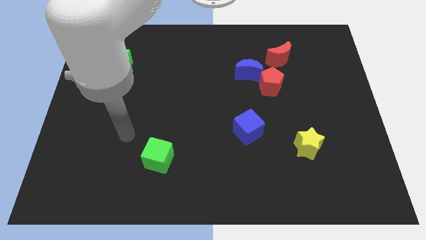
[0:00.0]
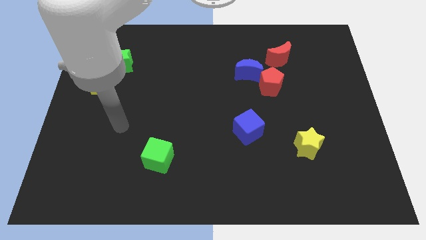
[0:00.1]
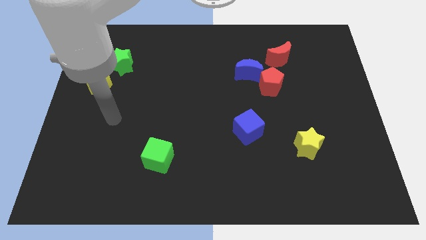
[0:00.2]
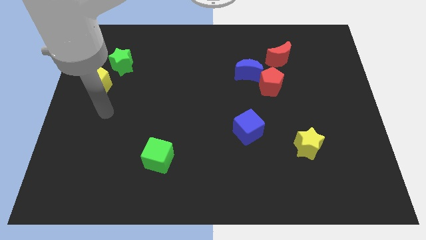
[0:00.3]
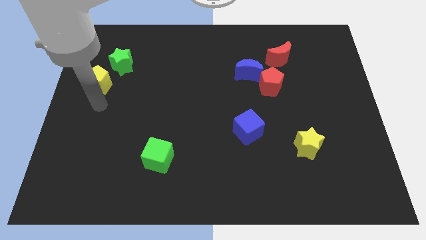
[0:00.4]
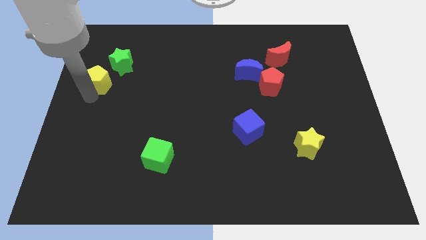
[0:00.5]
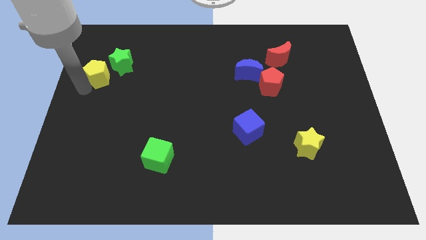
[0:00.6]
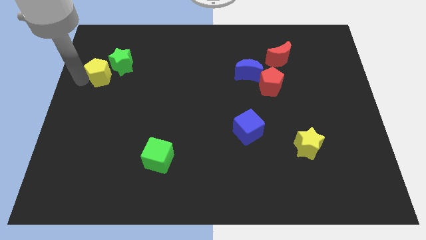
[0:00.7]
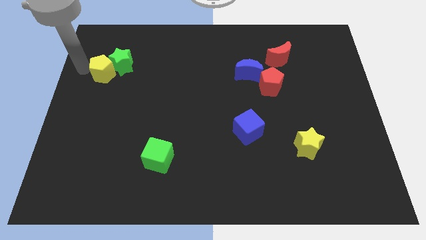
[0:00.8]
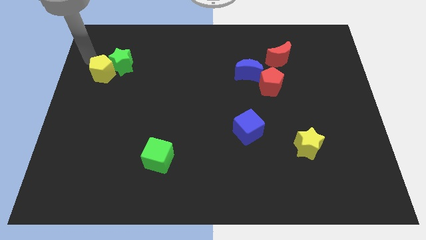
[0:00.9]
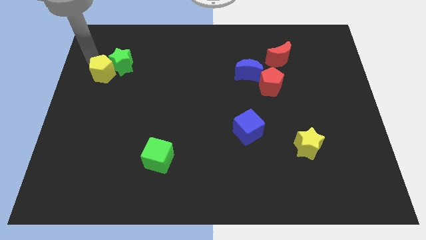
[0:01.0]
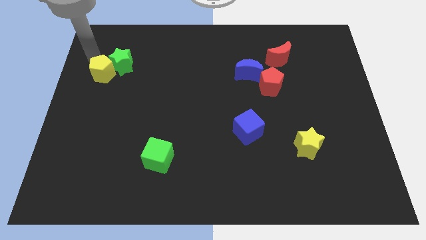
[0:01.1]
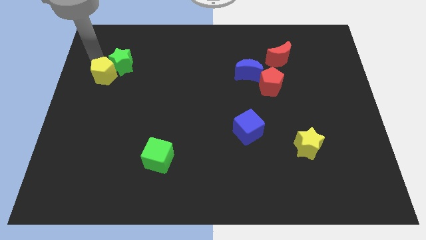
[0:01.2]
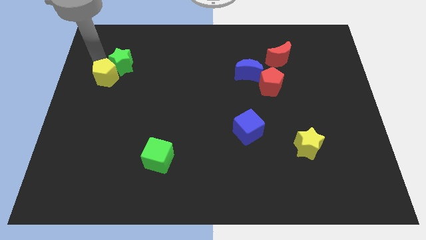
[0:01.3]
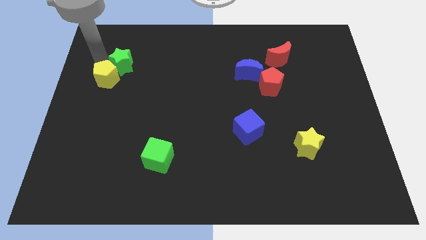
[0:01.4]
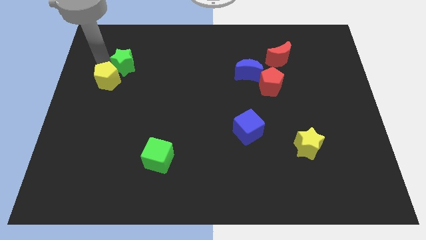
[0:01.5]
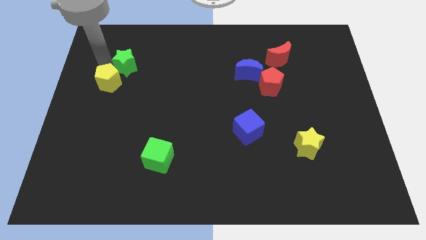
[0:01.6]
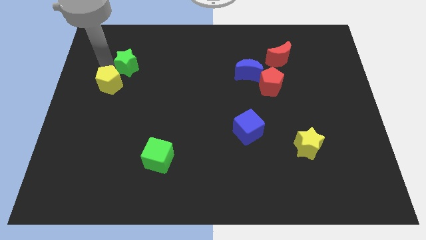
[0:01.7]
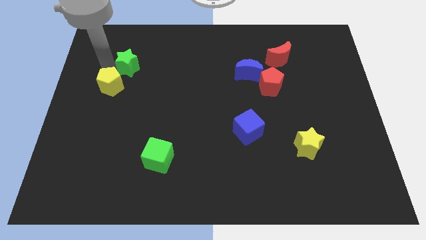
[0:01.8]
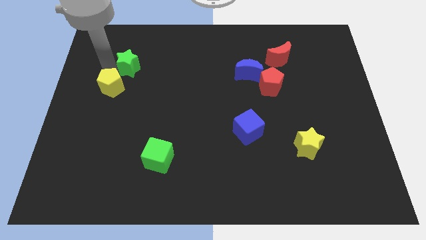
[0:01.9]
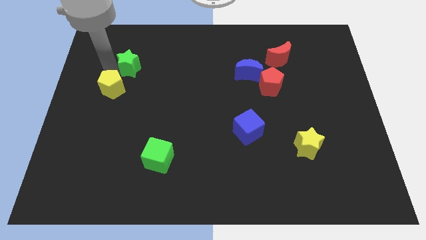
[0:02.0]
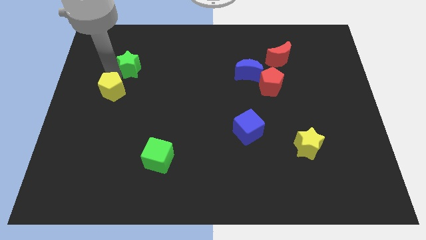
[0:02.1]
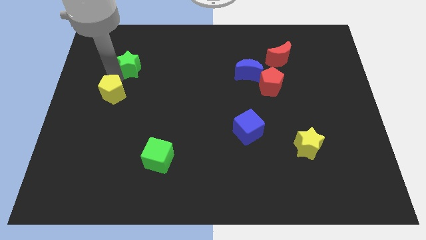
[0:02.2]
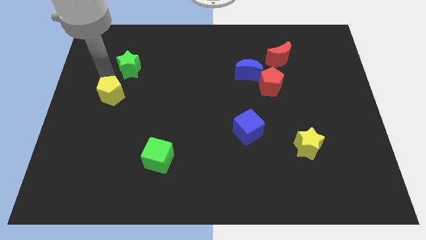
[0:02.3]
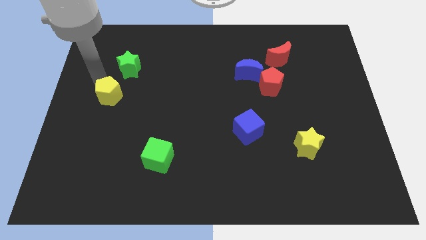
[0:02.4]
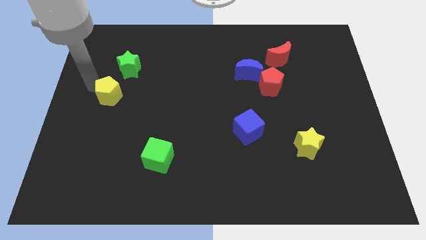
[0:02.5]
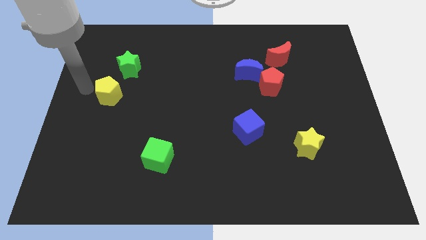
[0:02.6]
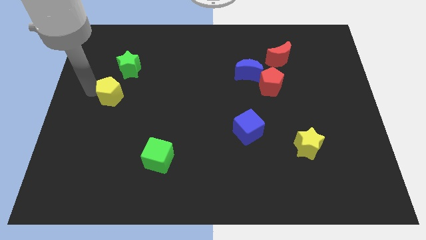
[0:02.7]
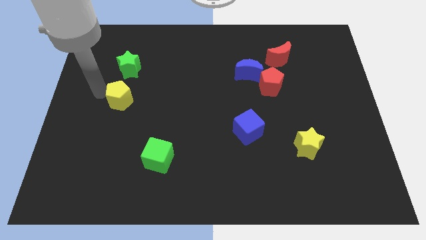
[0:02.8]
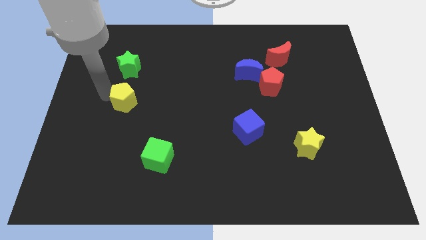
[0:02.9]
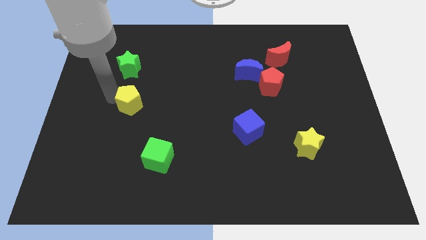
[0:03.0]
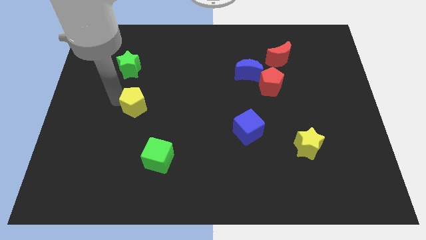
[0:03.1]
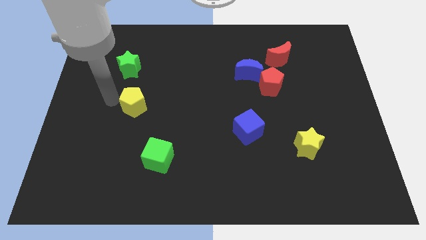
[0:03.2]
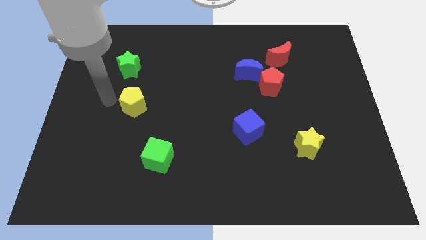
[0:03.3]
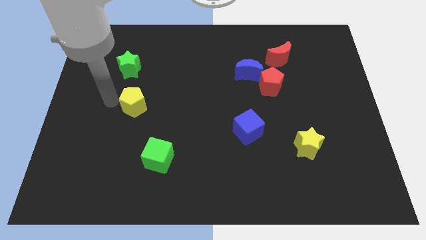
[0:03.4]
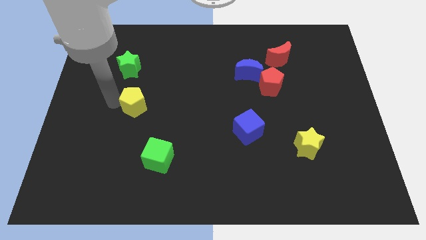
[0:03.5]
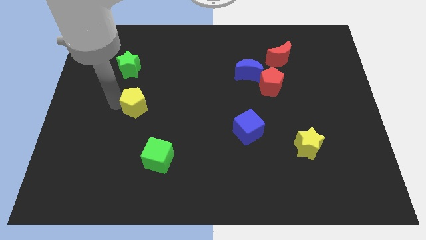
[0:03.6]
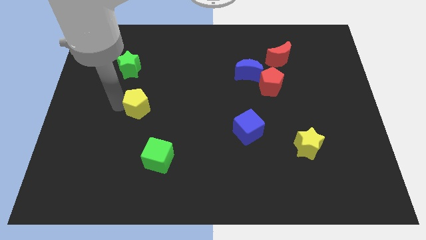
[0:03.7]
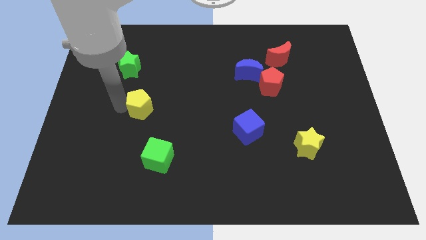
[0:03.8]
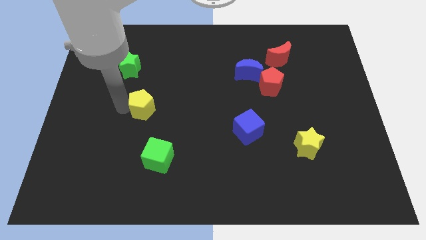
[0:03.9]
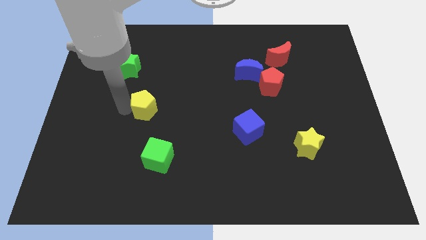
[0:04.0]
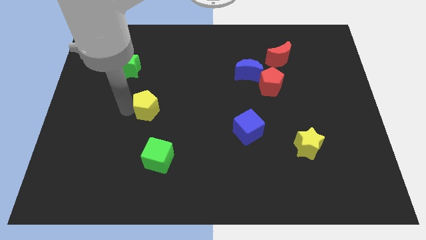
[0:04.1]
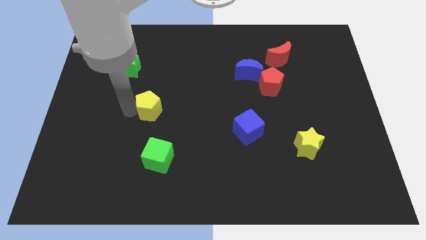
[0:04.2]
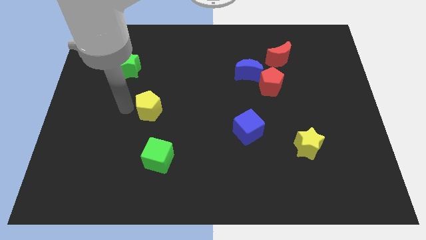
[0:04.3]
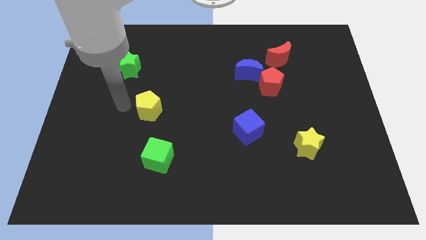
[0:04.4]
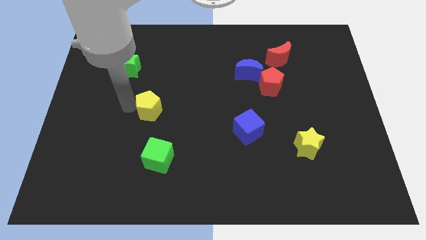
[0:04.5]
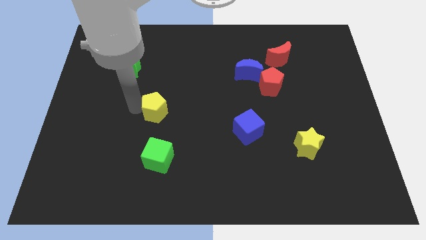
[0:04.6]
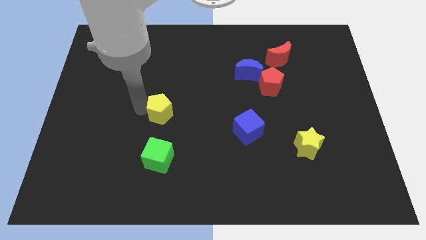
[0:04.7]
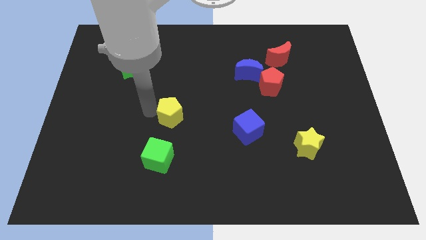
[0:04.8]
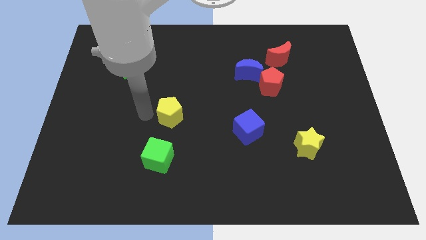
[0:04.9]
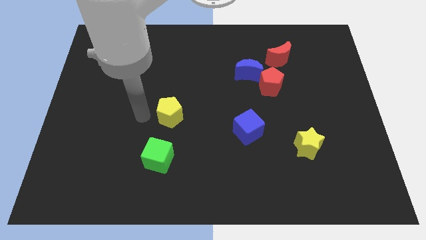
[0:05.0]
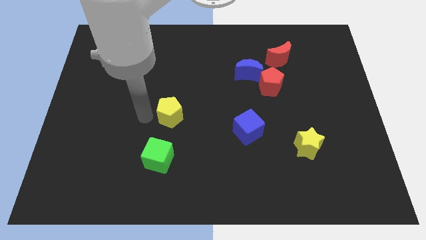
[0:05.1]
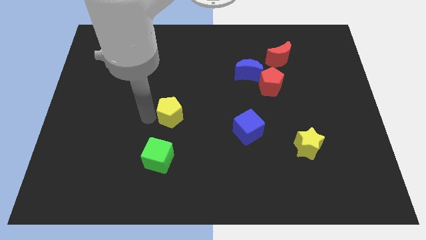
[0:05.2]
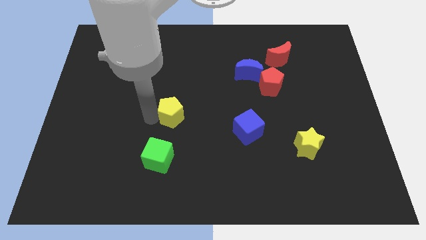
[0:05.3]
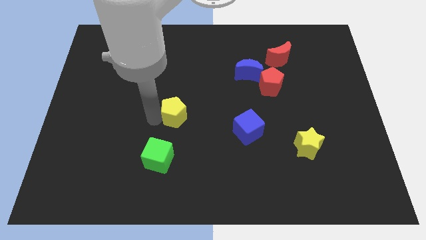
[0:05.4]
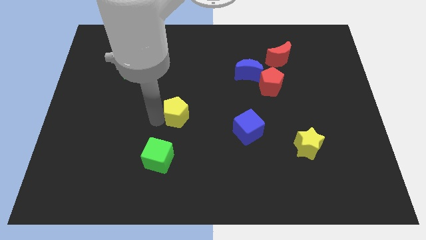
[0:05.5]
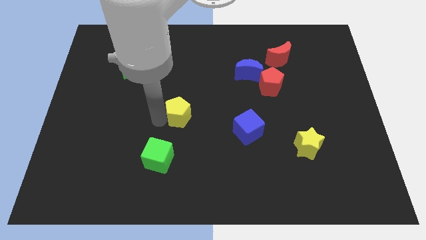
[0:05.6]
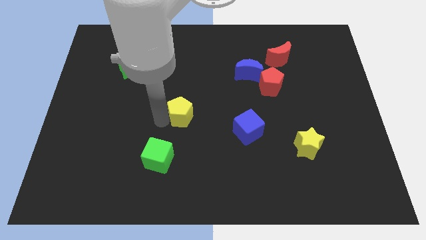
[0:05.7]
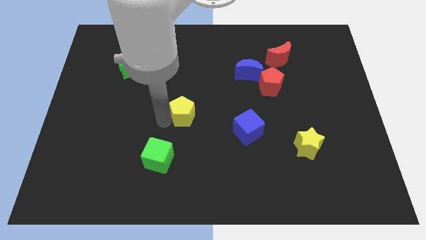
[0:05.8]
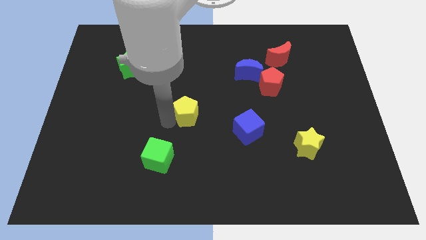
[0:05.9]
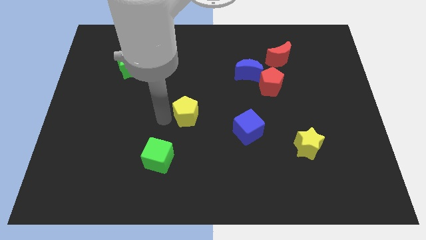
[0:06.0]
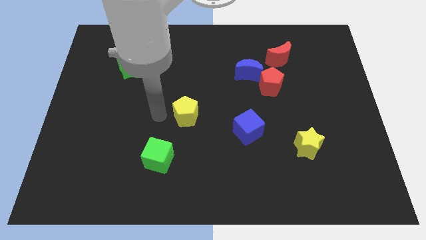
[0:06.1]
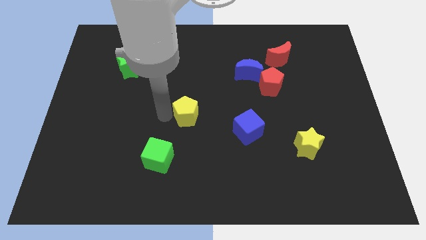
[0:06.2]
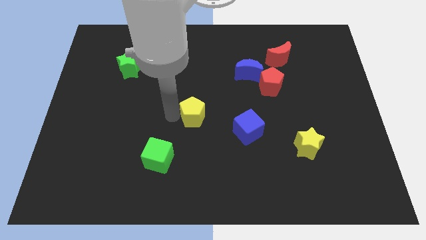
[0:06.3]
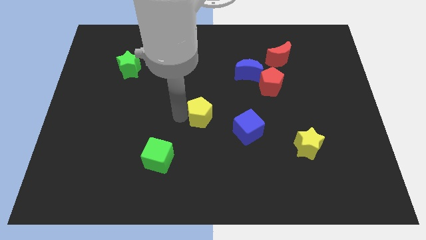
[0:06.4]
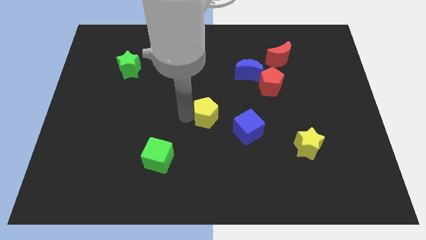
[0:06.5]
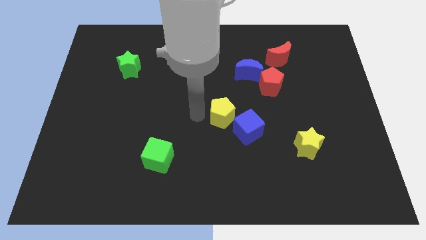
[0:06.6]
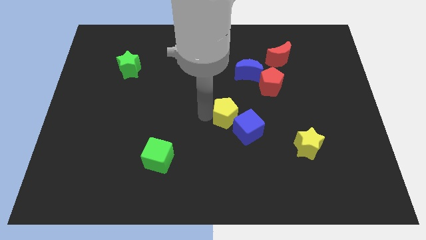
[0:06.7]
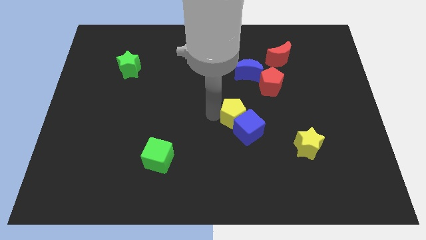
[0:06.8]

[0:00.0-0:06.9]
put the yellow pentagon towards the blue cube
